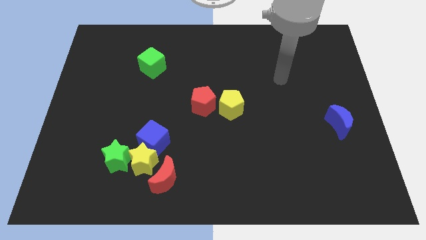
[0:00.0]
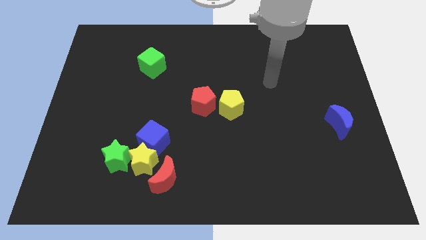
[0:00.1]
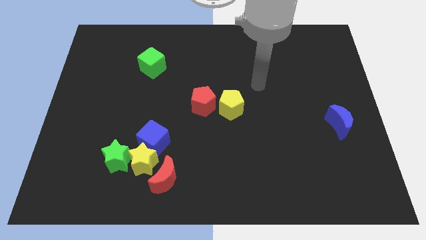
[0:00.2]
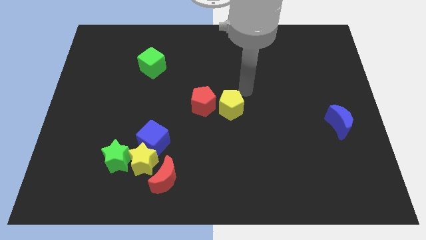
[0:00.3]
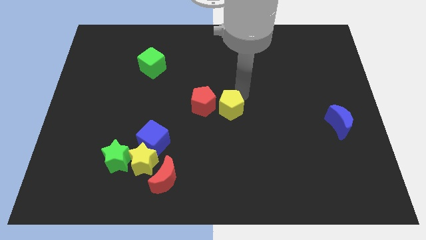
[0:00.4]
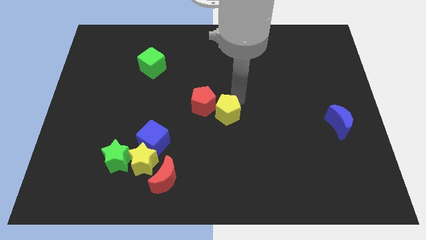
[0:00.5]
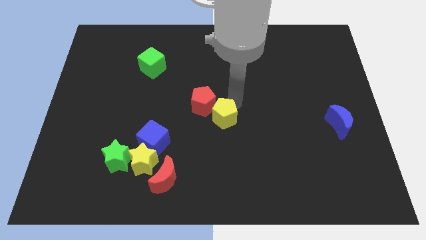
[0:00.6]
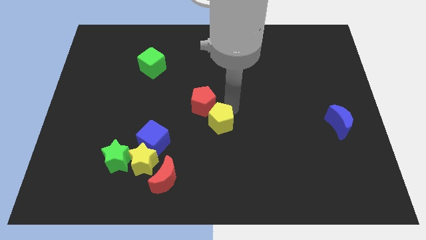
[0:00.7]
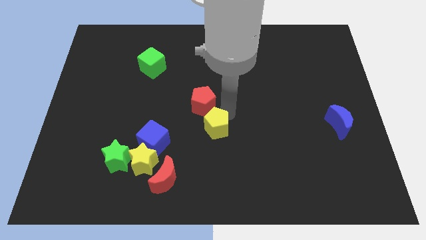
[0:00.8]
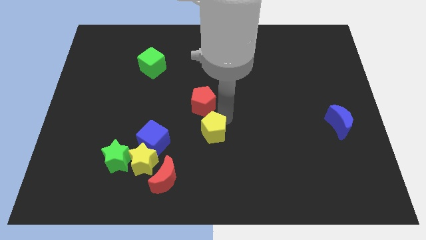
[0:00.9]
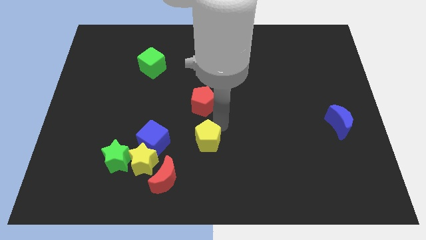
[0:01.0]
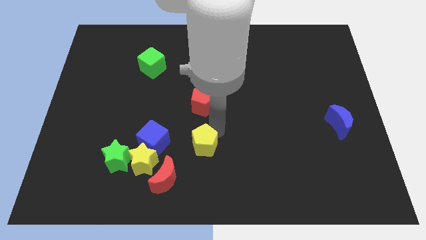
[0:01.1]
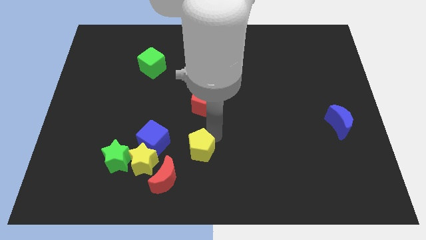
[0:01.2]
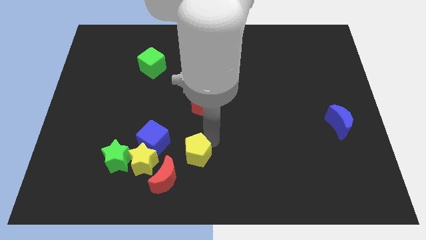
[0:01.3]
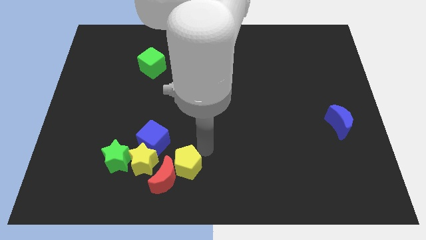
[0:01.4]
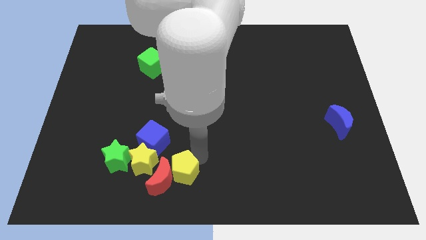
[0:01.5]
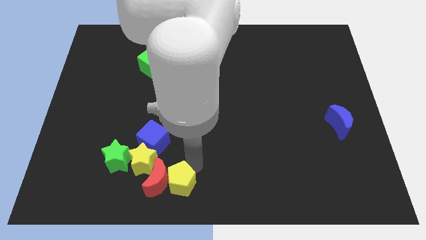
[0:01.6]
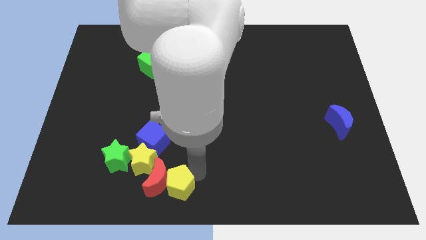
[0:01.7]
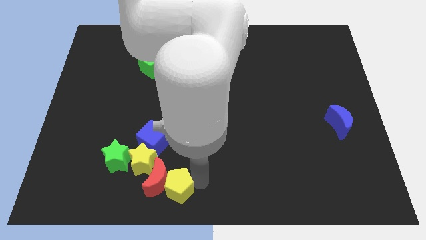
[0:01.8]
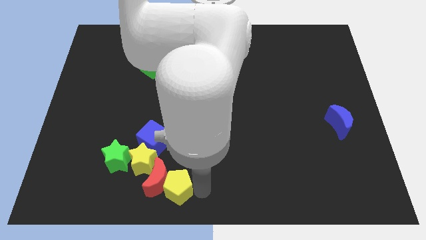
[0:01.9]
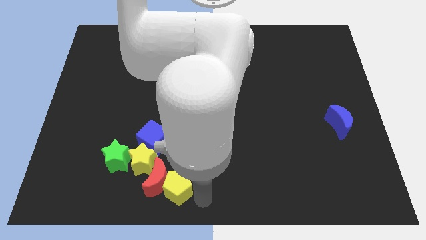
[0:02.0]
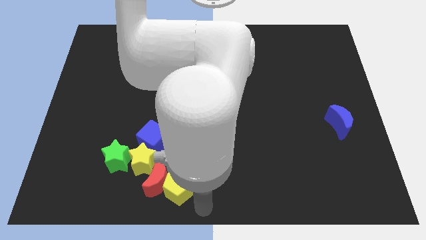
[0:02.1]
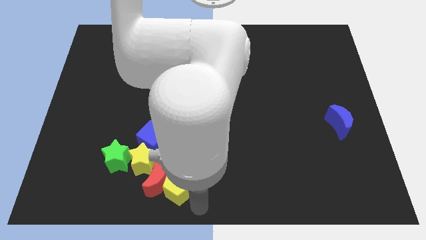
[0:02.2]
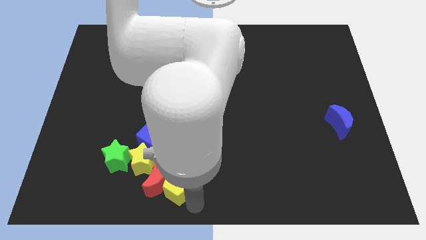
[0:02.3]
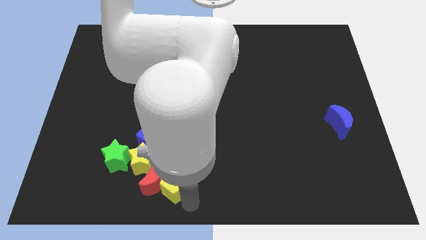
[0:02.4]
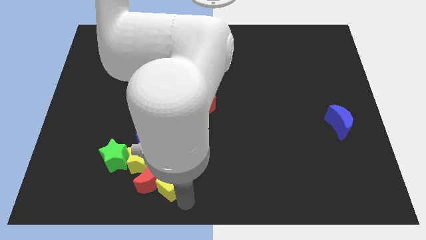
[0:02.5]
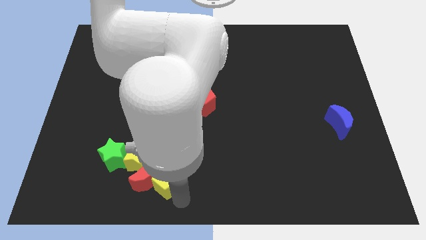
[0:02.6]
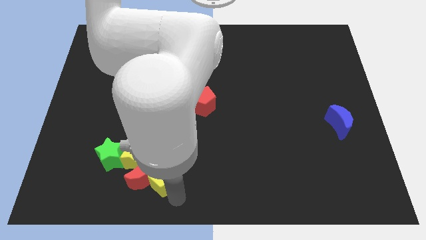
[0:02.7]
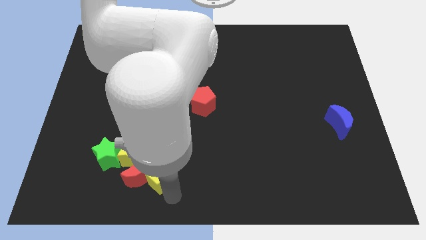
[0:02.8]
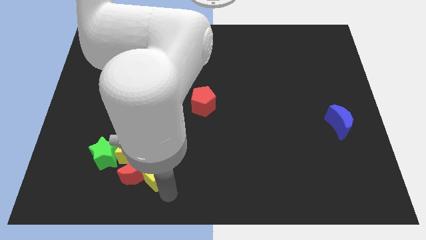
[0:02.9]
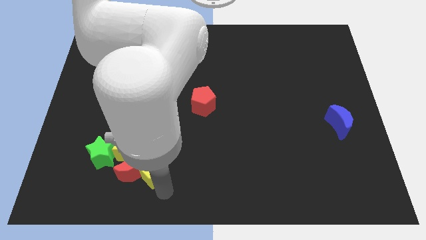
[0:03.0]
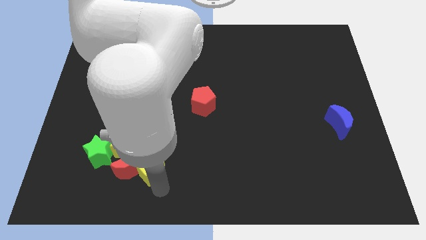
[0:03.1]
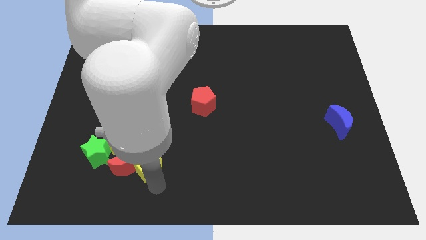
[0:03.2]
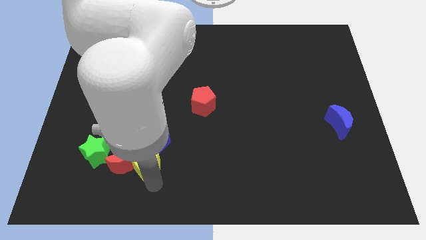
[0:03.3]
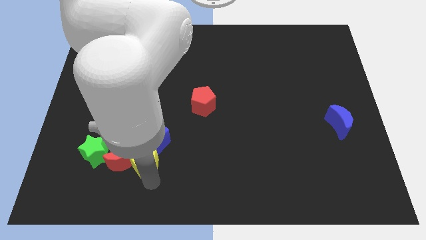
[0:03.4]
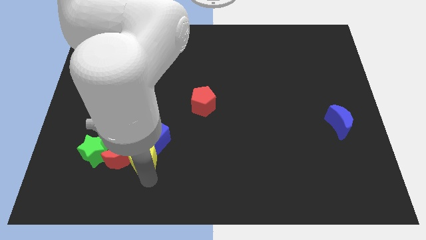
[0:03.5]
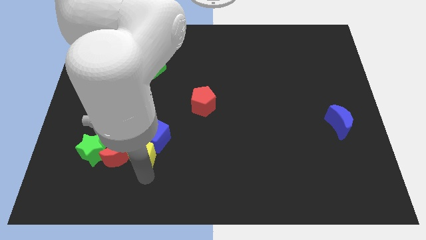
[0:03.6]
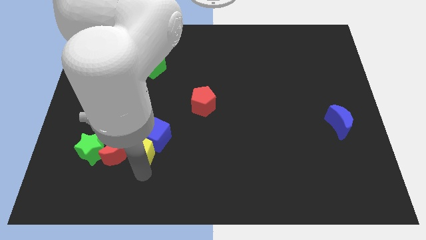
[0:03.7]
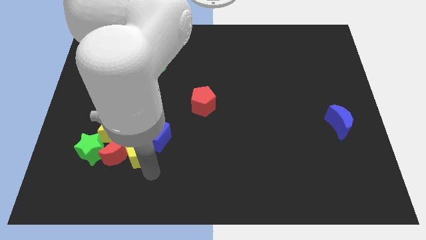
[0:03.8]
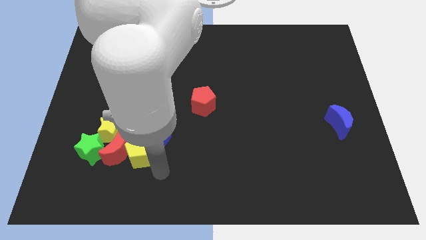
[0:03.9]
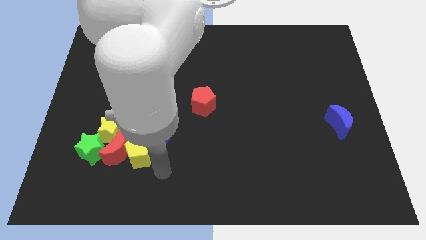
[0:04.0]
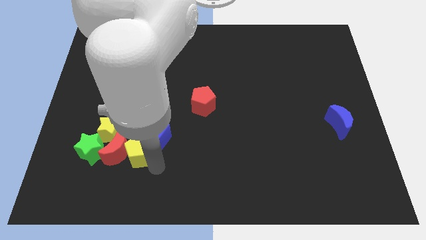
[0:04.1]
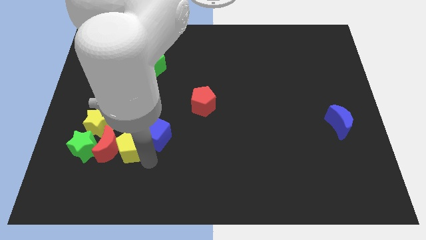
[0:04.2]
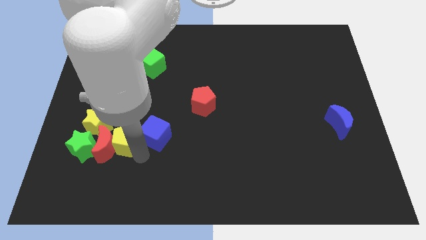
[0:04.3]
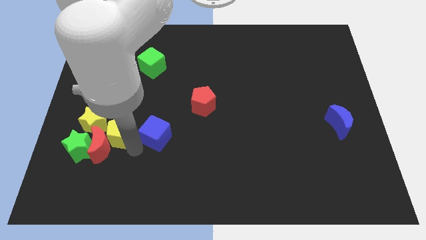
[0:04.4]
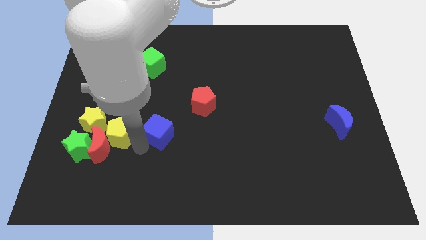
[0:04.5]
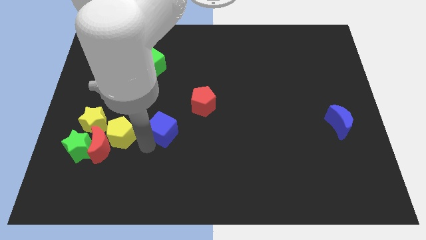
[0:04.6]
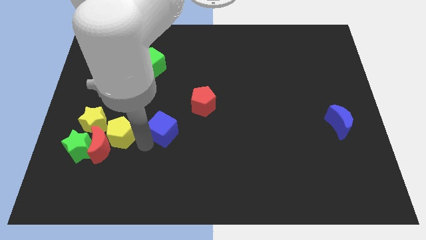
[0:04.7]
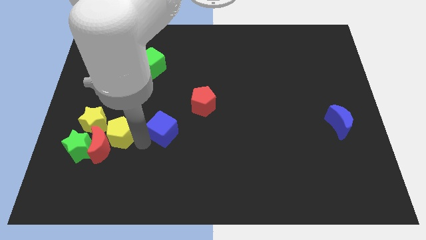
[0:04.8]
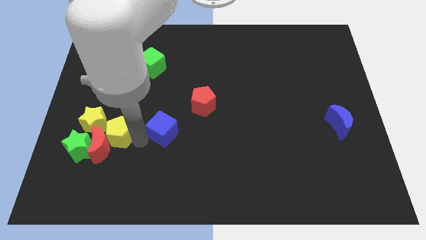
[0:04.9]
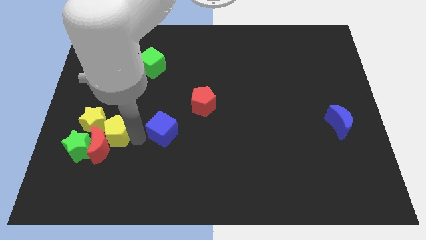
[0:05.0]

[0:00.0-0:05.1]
move the yellow pentagon next to the yellow star

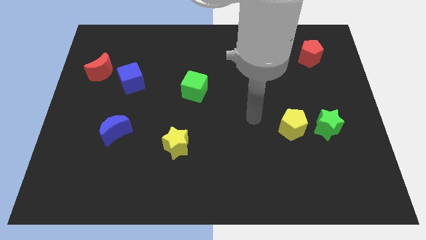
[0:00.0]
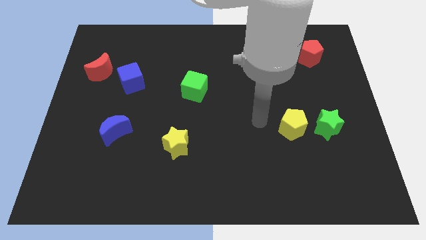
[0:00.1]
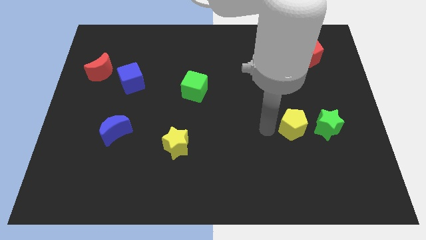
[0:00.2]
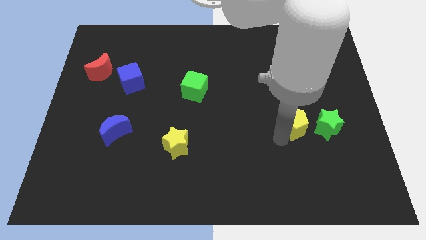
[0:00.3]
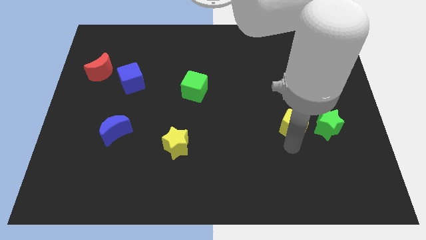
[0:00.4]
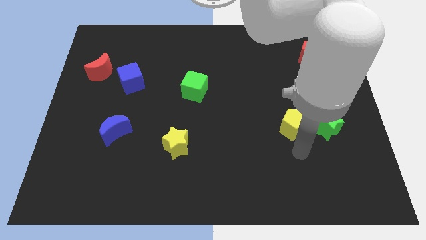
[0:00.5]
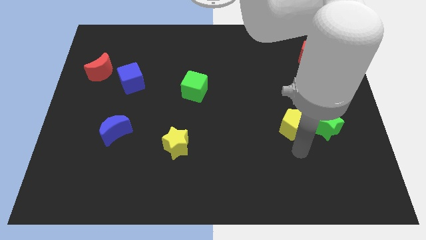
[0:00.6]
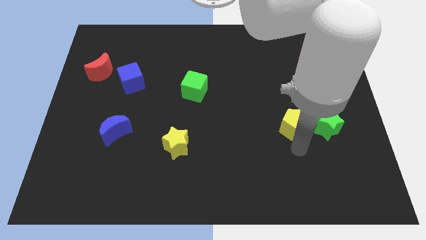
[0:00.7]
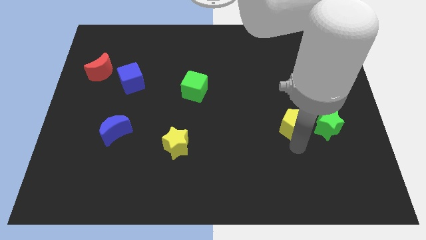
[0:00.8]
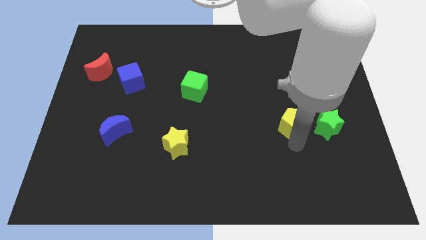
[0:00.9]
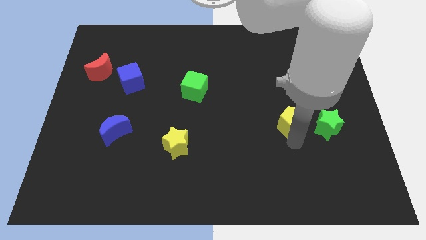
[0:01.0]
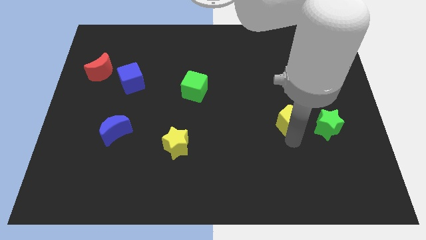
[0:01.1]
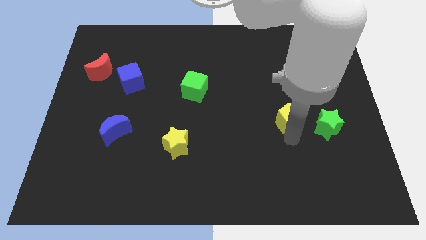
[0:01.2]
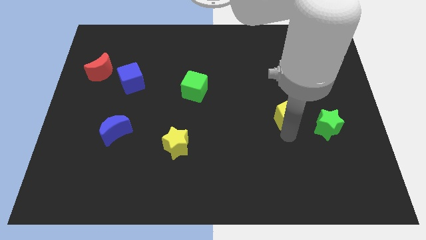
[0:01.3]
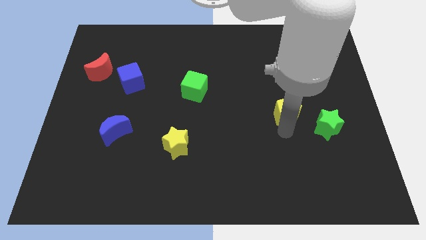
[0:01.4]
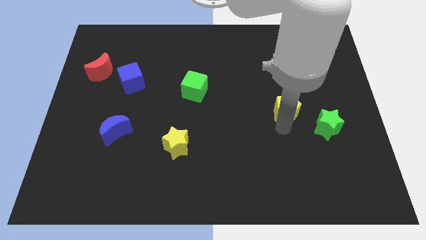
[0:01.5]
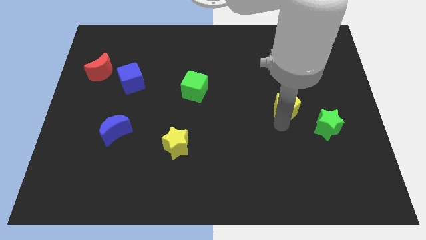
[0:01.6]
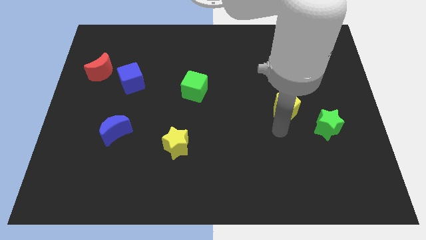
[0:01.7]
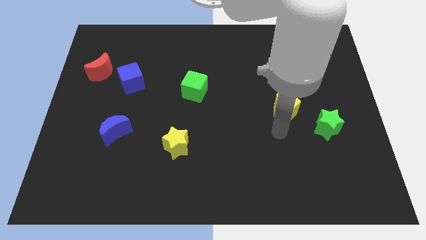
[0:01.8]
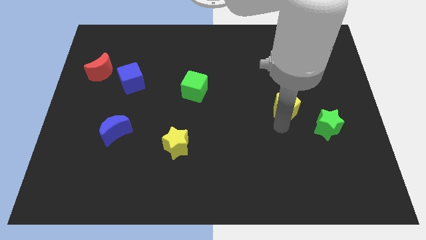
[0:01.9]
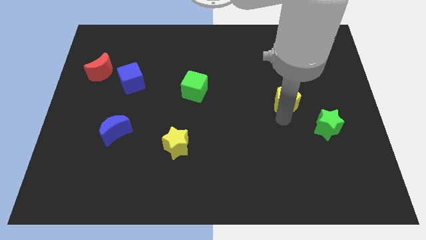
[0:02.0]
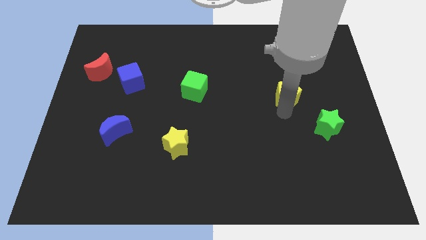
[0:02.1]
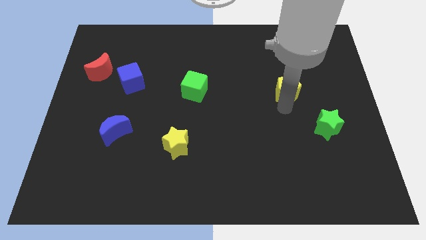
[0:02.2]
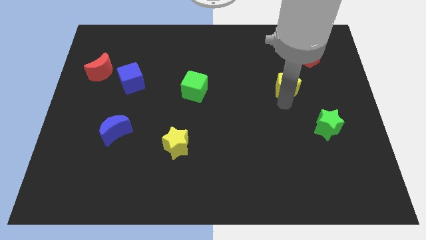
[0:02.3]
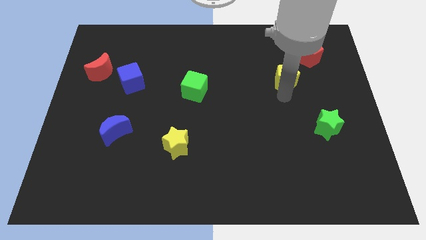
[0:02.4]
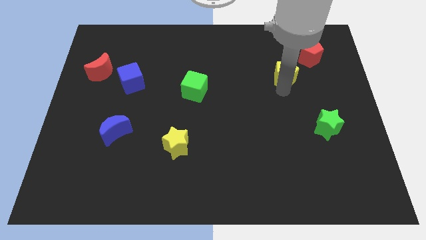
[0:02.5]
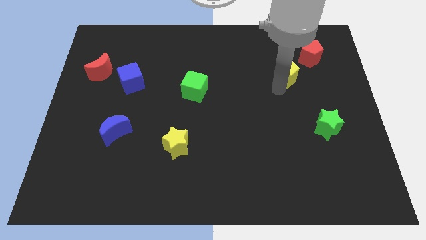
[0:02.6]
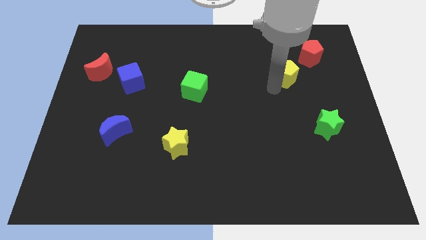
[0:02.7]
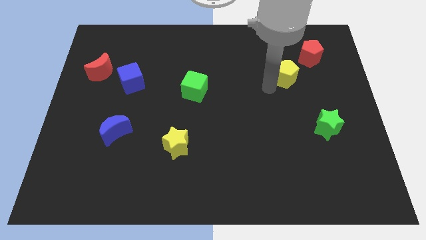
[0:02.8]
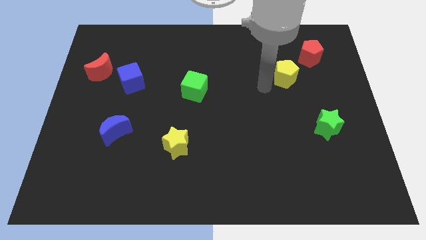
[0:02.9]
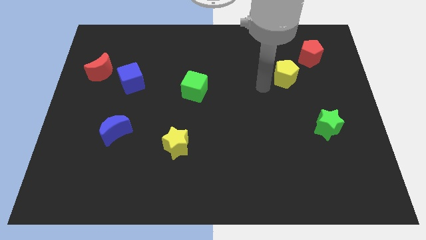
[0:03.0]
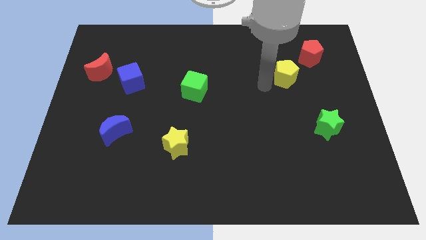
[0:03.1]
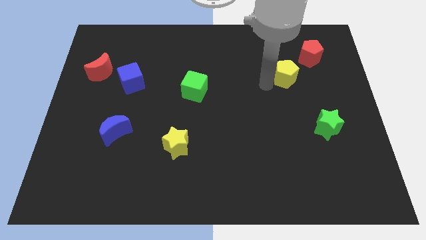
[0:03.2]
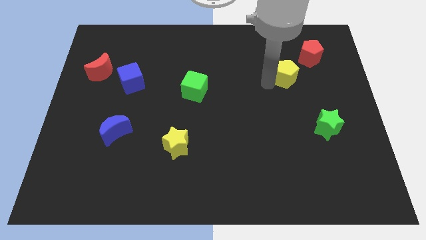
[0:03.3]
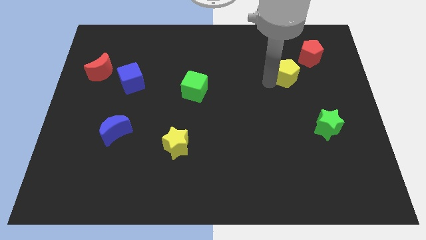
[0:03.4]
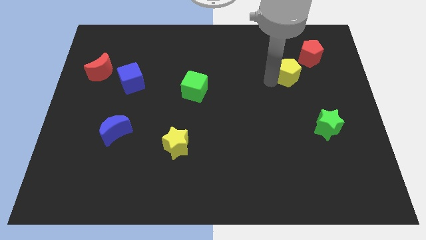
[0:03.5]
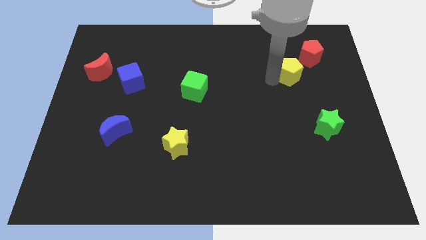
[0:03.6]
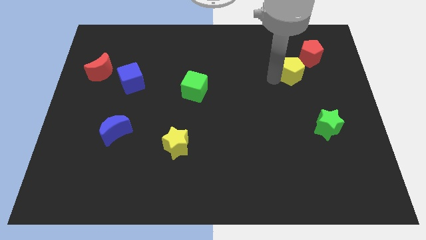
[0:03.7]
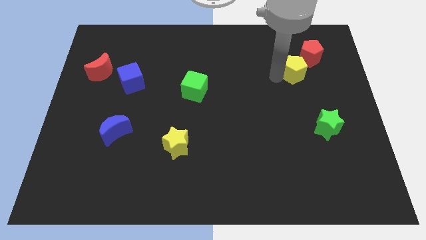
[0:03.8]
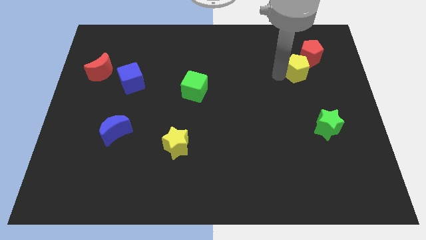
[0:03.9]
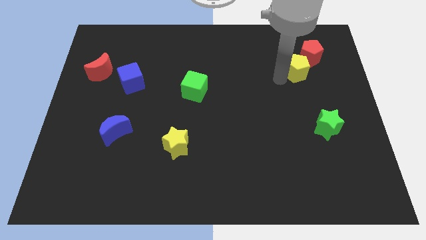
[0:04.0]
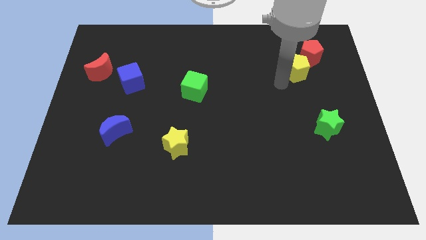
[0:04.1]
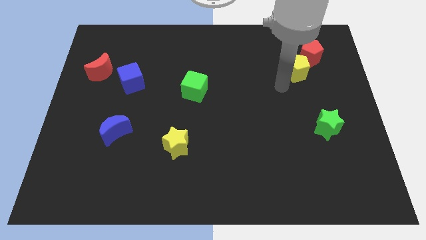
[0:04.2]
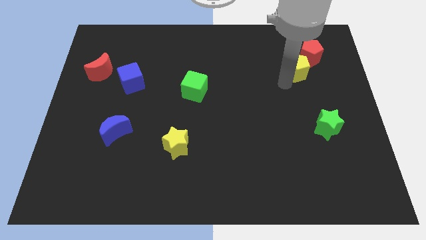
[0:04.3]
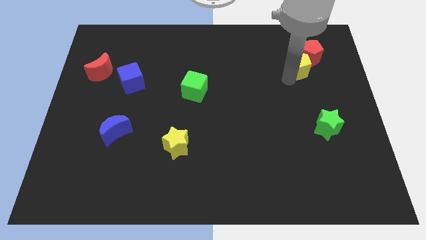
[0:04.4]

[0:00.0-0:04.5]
push the yellow pentagon close to the red pentagon
